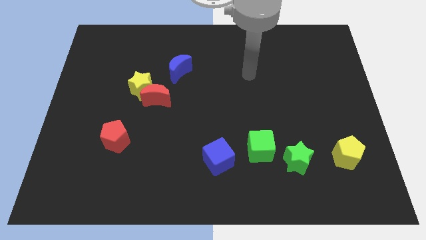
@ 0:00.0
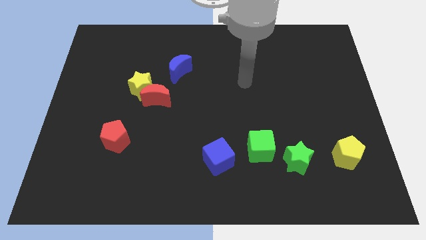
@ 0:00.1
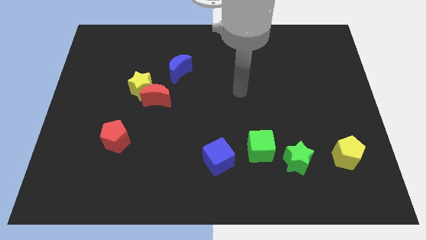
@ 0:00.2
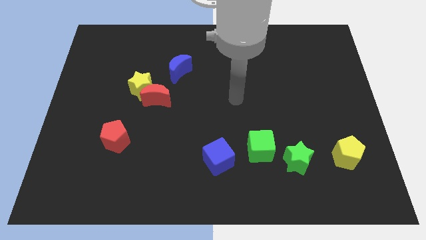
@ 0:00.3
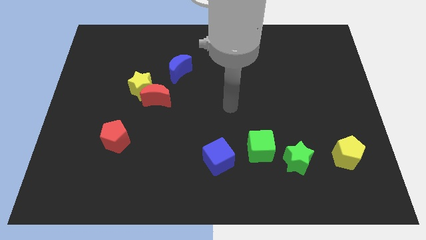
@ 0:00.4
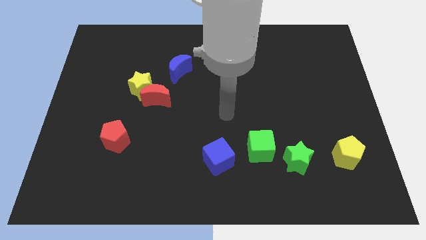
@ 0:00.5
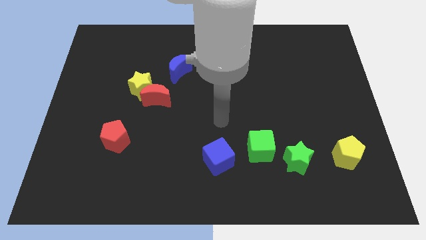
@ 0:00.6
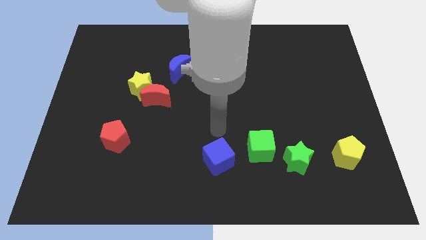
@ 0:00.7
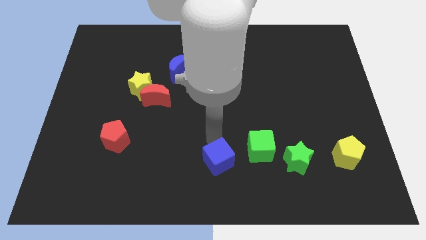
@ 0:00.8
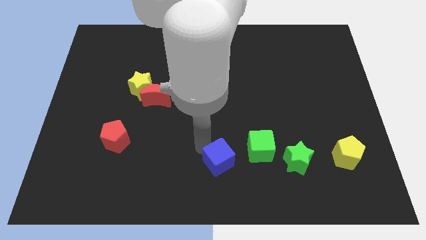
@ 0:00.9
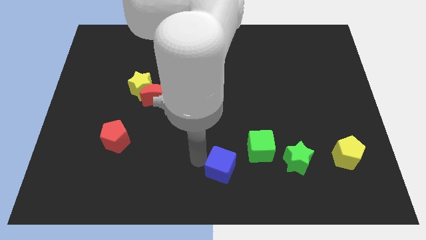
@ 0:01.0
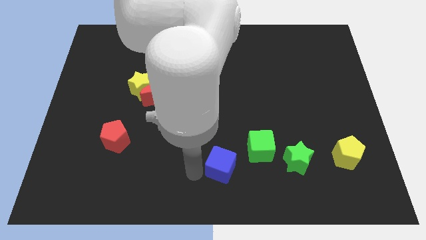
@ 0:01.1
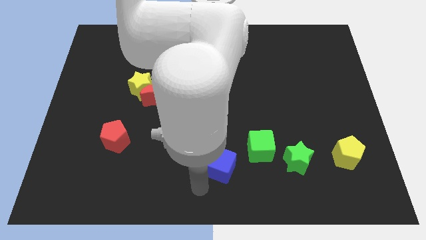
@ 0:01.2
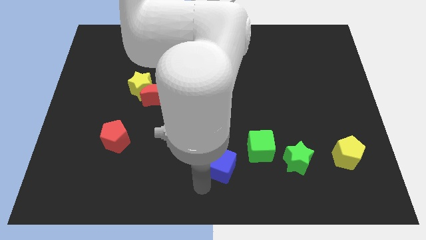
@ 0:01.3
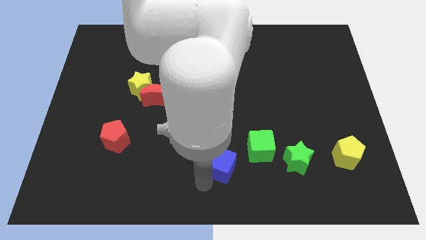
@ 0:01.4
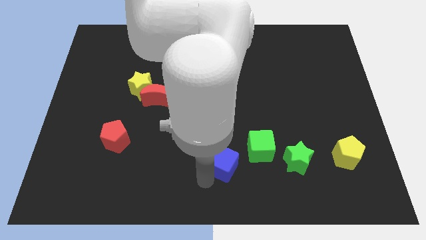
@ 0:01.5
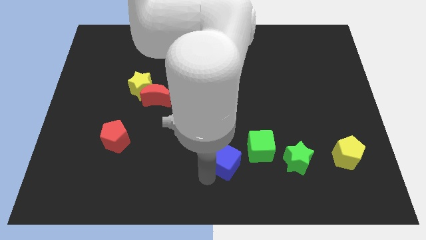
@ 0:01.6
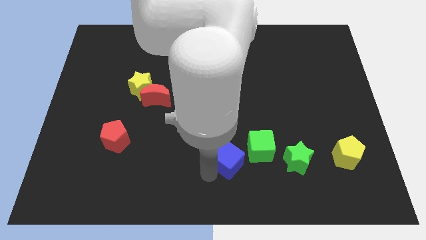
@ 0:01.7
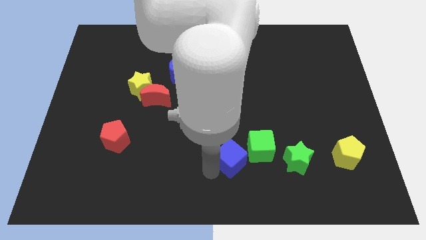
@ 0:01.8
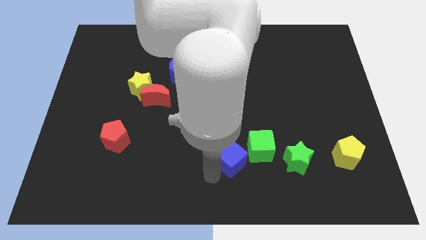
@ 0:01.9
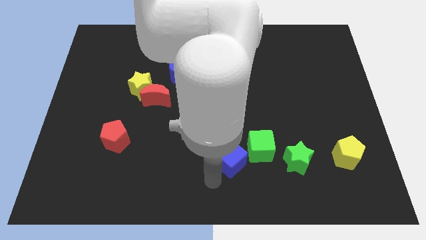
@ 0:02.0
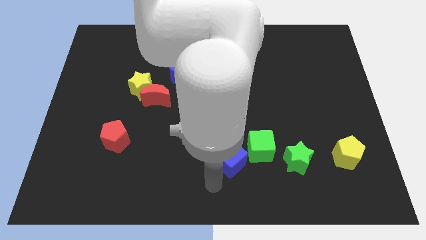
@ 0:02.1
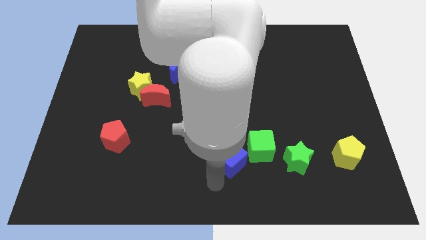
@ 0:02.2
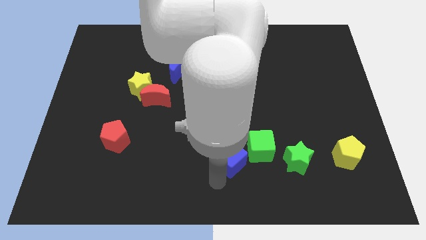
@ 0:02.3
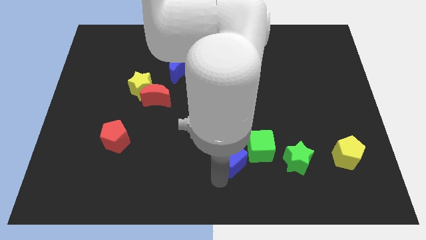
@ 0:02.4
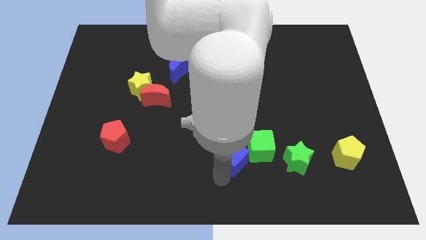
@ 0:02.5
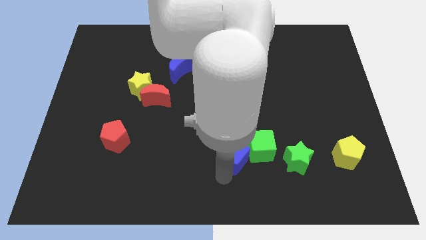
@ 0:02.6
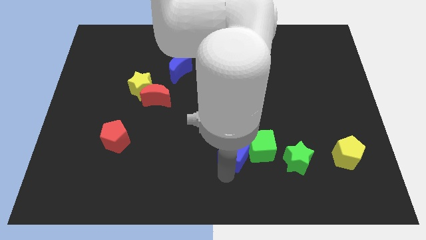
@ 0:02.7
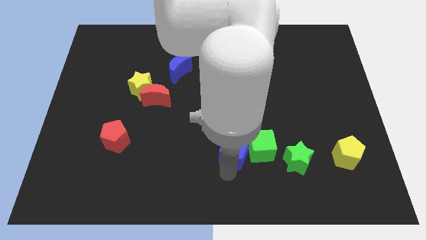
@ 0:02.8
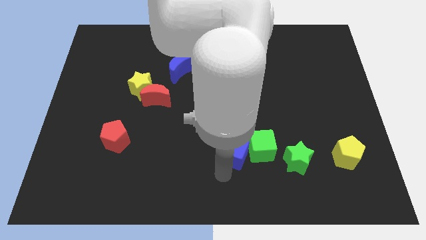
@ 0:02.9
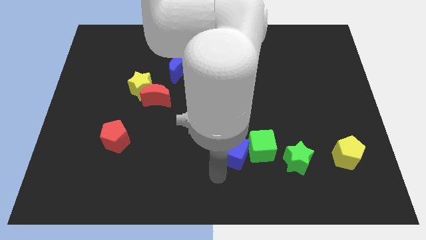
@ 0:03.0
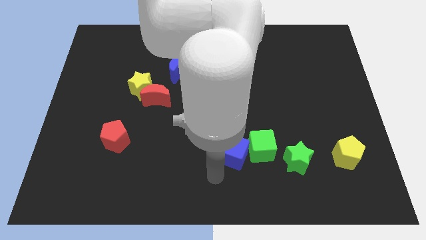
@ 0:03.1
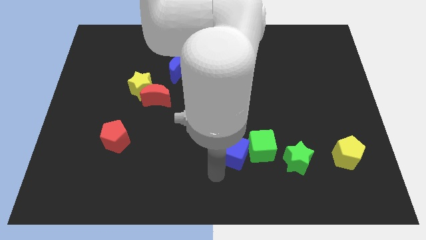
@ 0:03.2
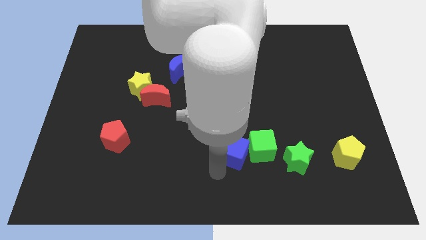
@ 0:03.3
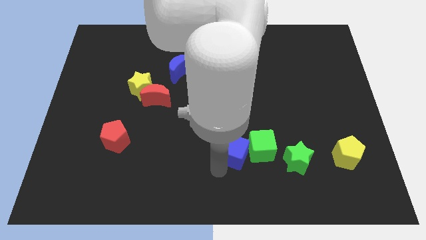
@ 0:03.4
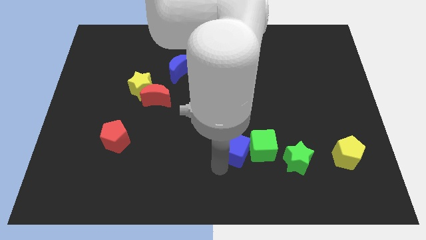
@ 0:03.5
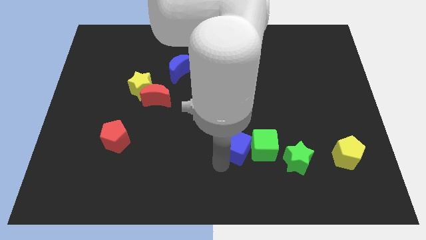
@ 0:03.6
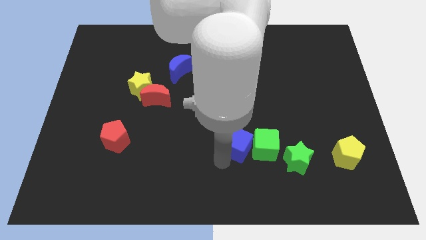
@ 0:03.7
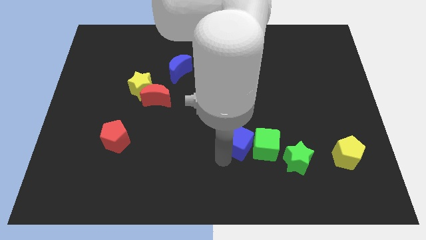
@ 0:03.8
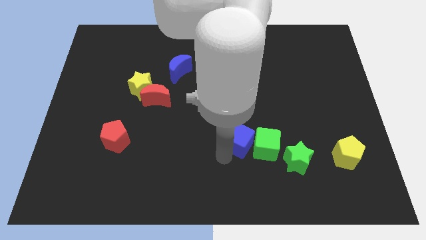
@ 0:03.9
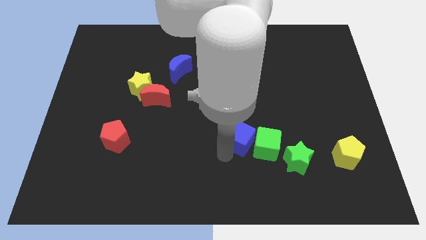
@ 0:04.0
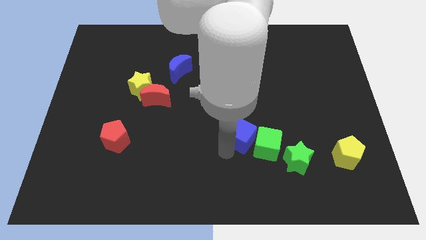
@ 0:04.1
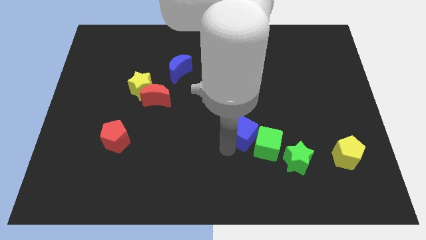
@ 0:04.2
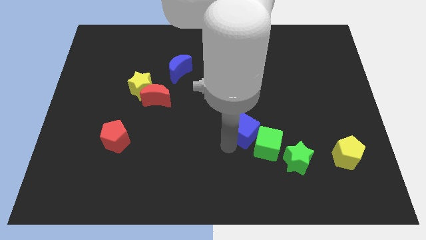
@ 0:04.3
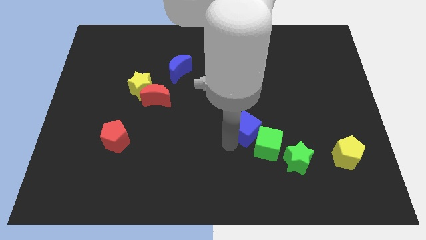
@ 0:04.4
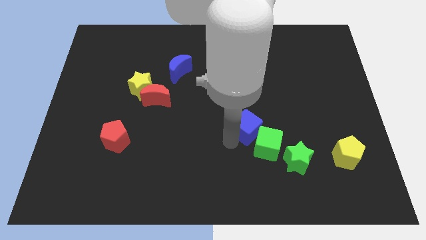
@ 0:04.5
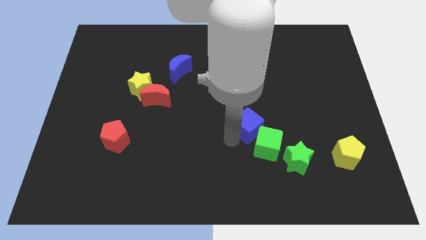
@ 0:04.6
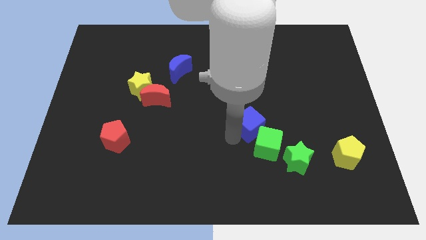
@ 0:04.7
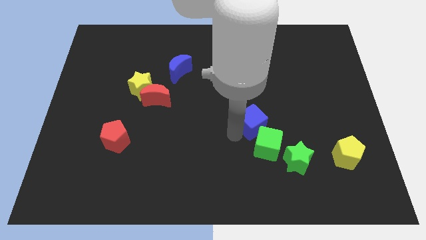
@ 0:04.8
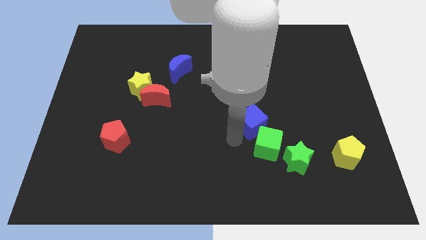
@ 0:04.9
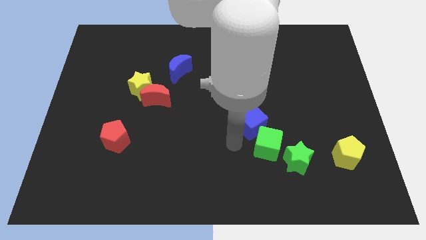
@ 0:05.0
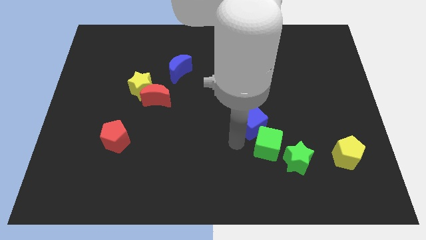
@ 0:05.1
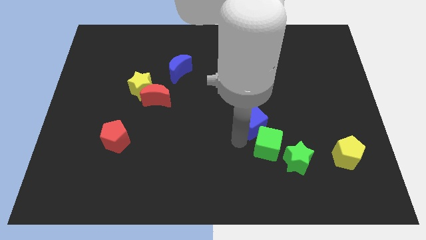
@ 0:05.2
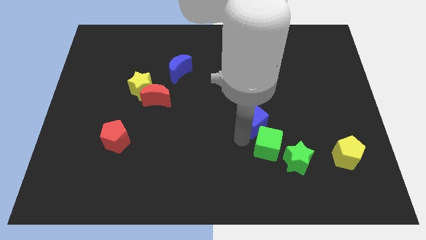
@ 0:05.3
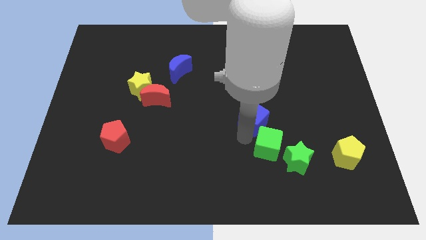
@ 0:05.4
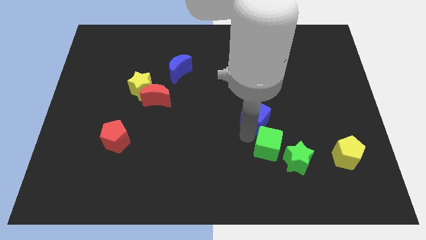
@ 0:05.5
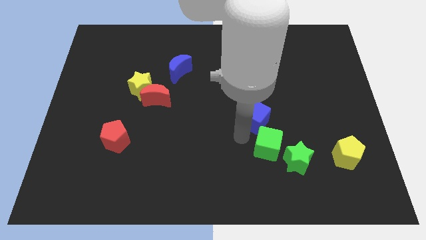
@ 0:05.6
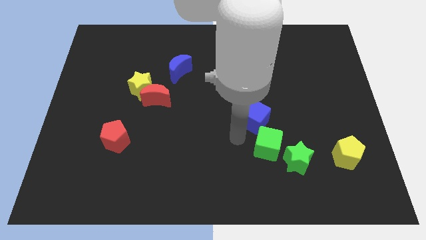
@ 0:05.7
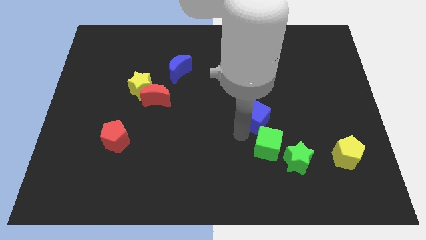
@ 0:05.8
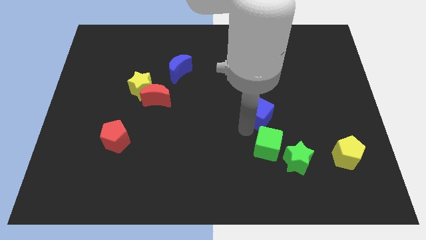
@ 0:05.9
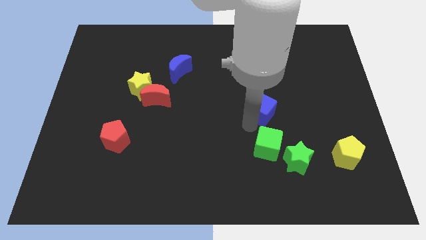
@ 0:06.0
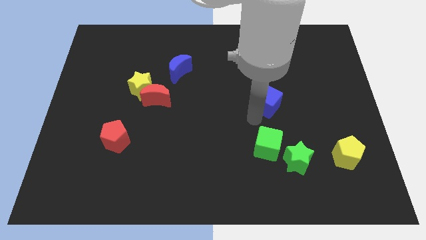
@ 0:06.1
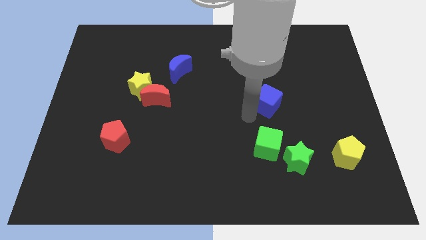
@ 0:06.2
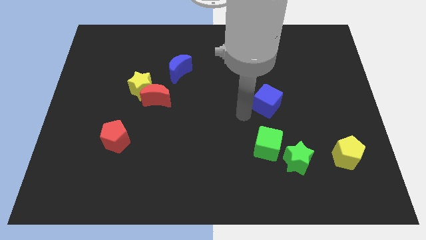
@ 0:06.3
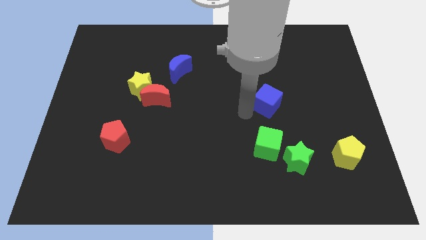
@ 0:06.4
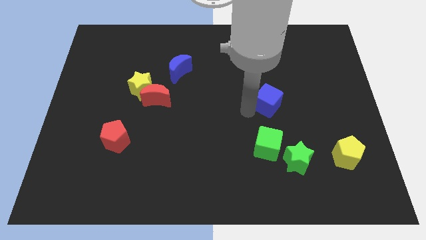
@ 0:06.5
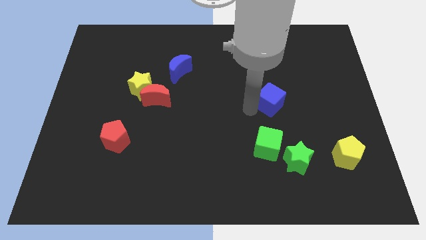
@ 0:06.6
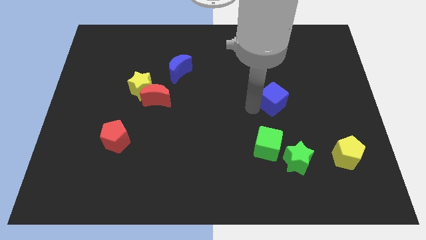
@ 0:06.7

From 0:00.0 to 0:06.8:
push the blue cube upwards and then right

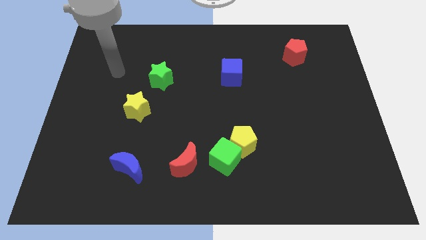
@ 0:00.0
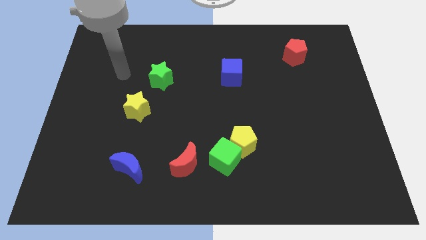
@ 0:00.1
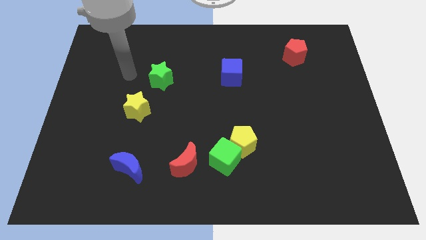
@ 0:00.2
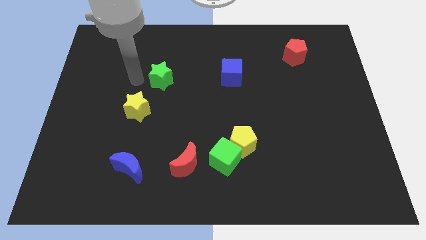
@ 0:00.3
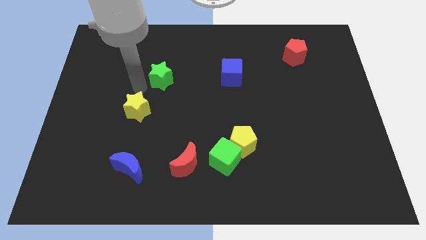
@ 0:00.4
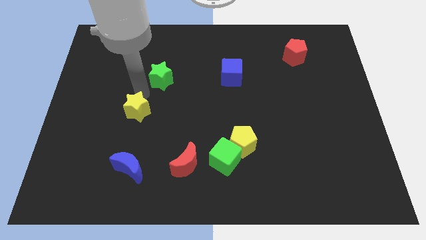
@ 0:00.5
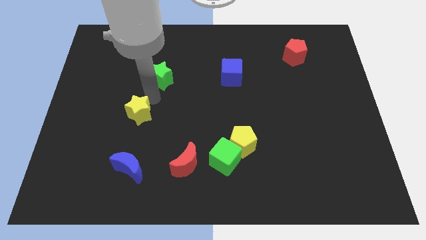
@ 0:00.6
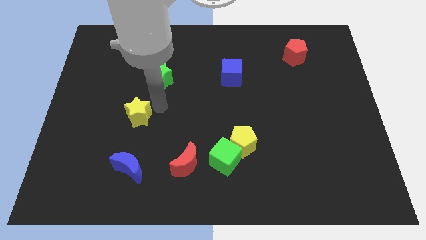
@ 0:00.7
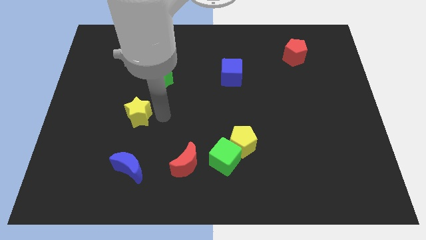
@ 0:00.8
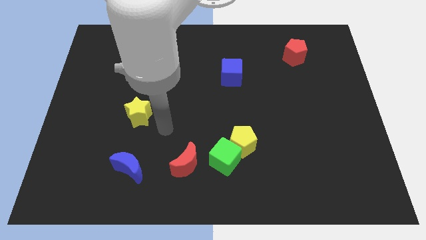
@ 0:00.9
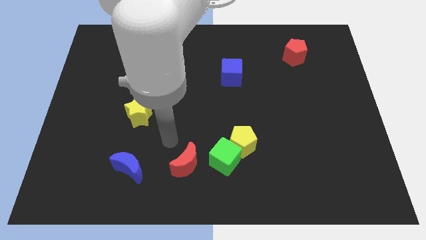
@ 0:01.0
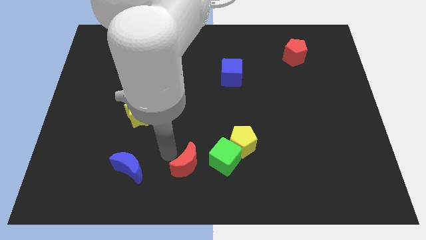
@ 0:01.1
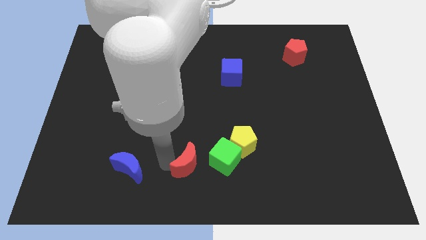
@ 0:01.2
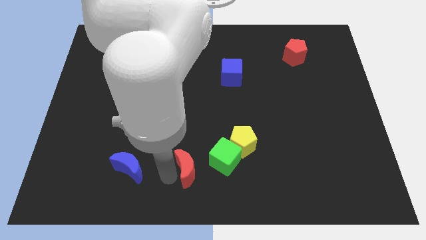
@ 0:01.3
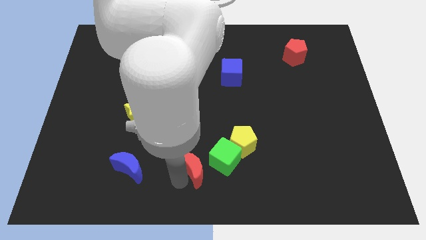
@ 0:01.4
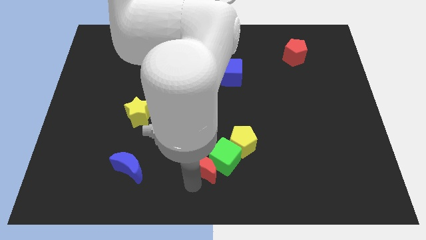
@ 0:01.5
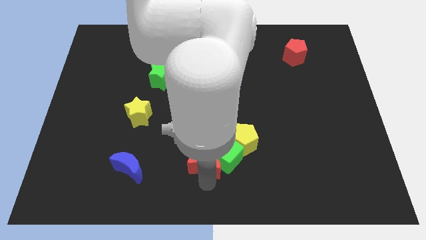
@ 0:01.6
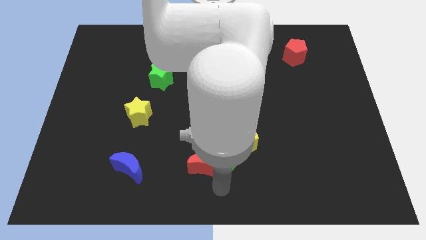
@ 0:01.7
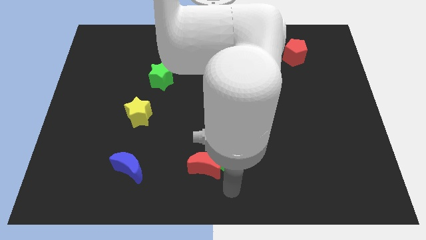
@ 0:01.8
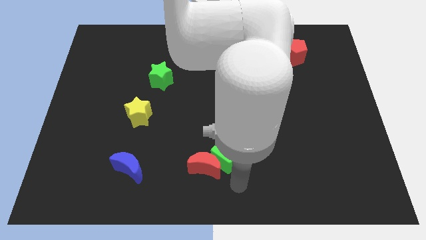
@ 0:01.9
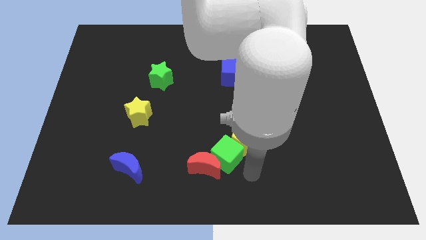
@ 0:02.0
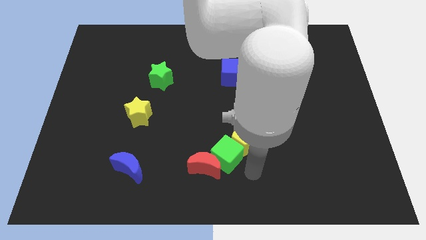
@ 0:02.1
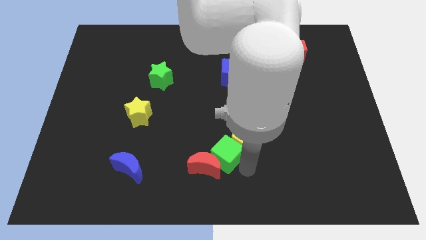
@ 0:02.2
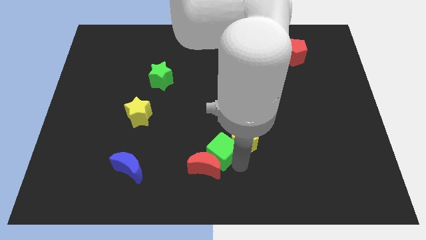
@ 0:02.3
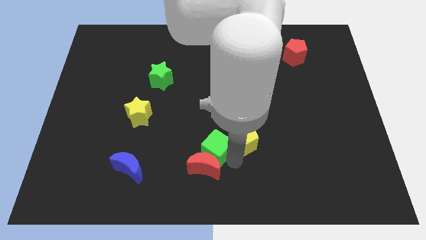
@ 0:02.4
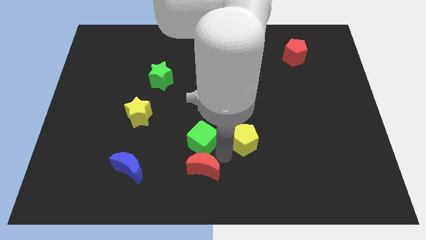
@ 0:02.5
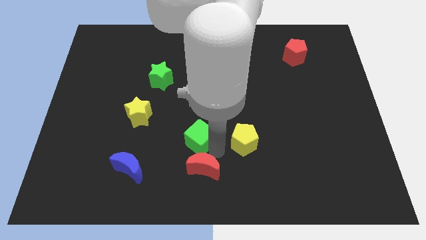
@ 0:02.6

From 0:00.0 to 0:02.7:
slide the green cube a little upwards and then left
